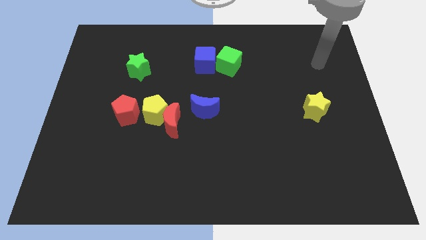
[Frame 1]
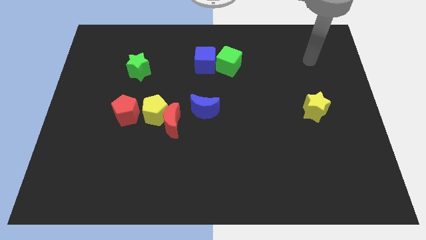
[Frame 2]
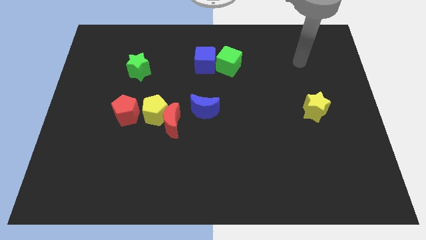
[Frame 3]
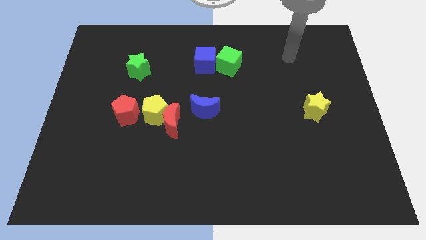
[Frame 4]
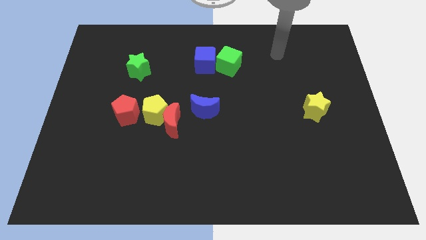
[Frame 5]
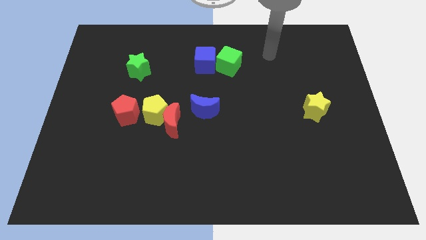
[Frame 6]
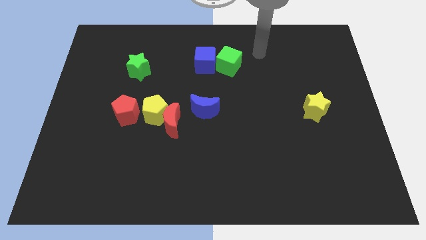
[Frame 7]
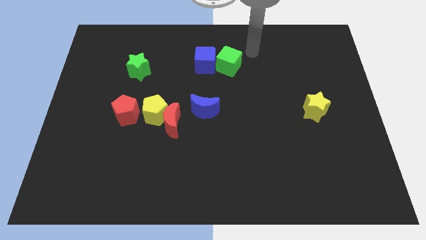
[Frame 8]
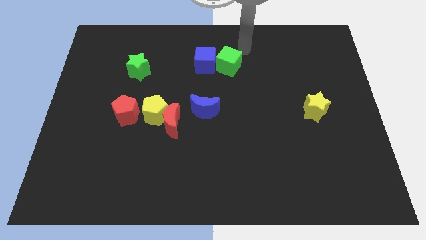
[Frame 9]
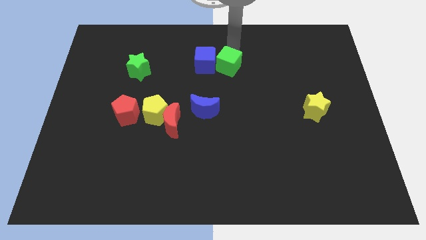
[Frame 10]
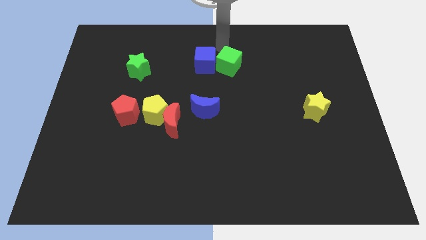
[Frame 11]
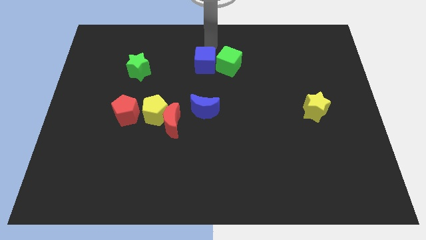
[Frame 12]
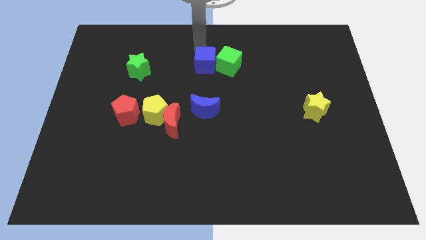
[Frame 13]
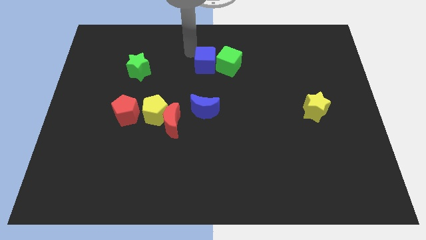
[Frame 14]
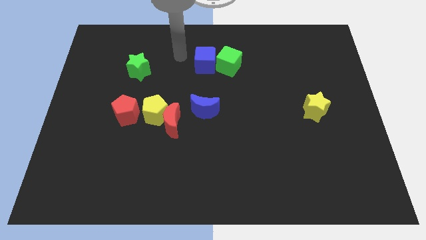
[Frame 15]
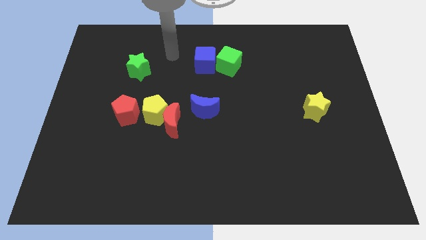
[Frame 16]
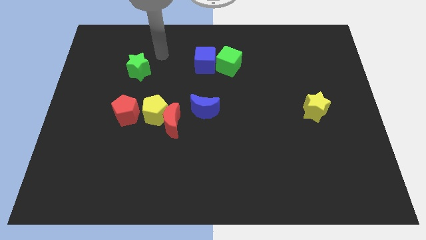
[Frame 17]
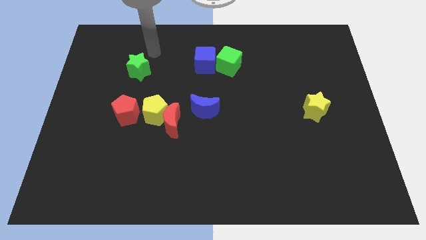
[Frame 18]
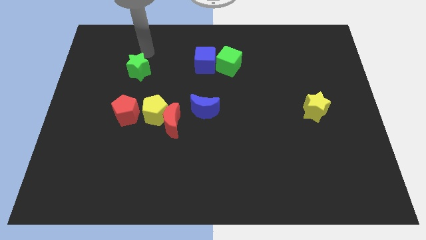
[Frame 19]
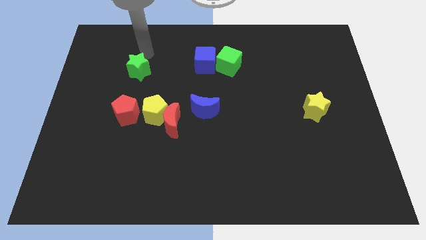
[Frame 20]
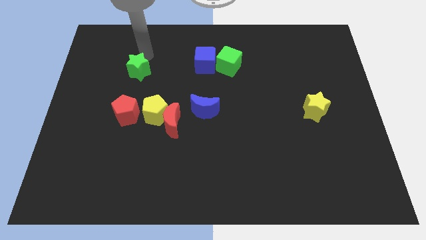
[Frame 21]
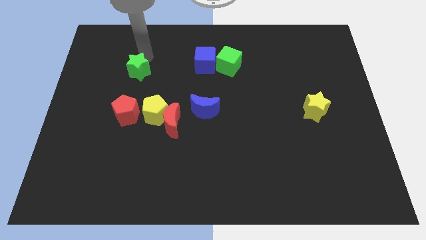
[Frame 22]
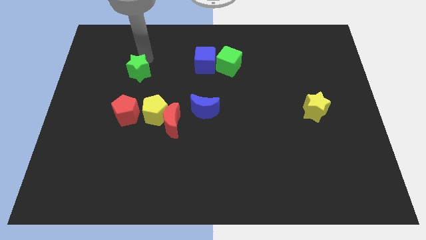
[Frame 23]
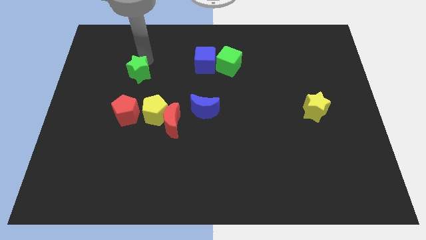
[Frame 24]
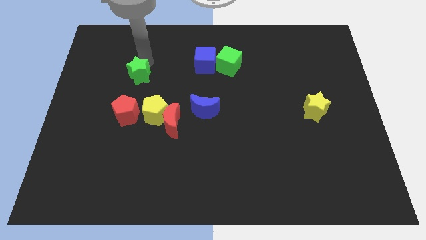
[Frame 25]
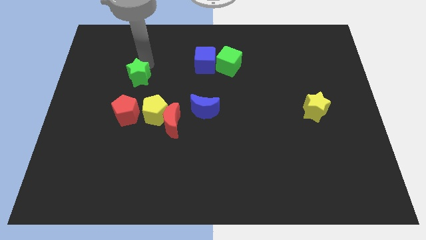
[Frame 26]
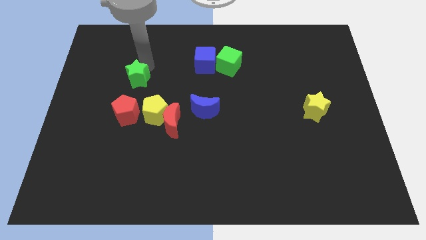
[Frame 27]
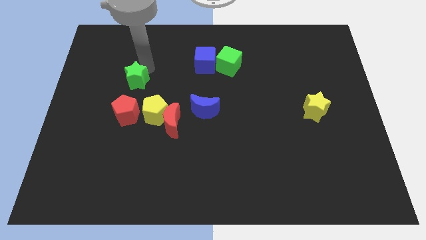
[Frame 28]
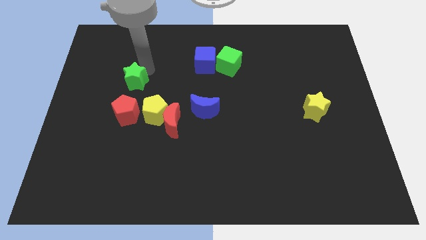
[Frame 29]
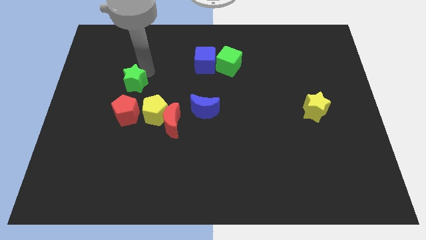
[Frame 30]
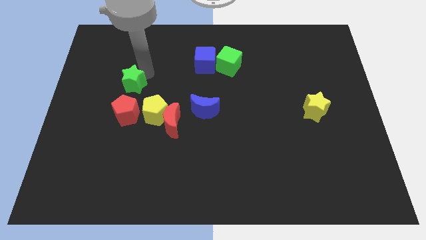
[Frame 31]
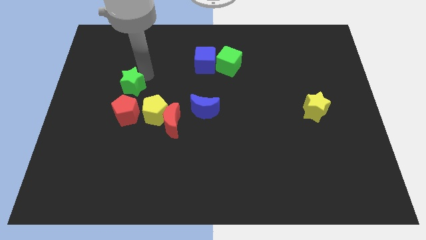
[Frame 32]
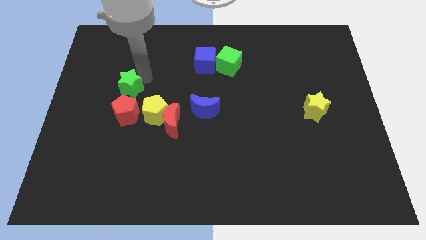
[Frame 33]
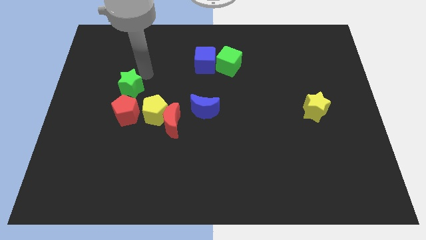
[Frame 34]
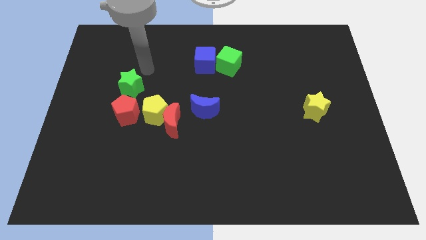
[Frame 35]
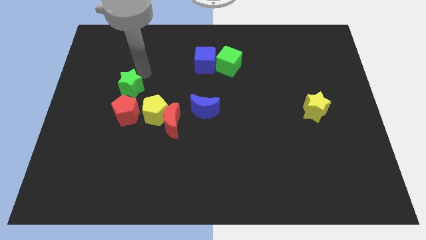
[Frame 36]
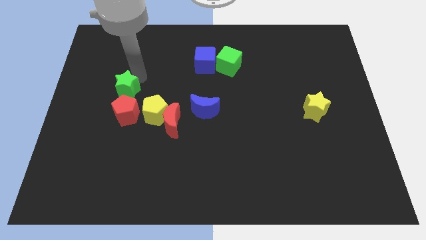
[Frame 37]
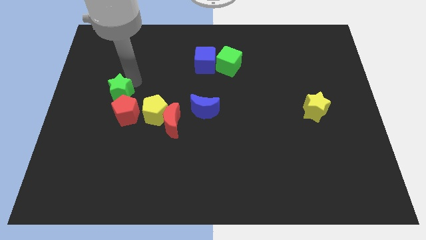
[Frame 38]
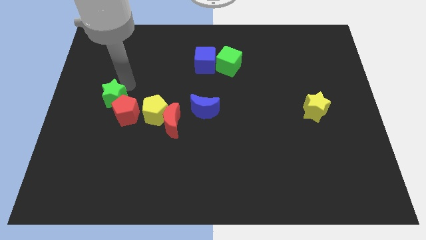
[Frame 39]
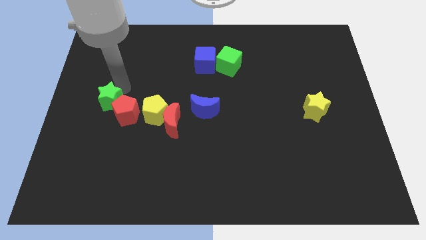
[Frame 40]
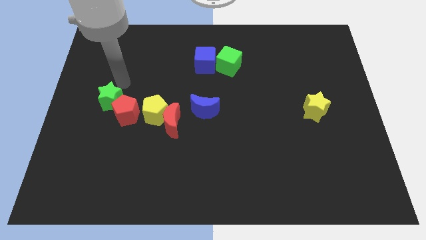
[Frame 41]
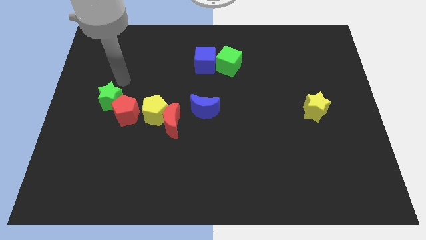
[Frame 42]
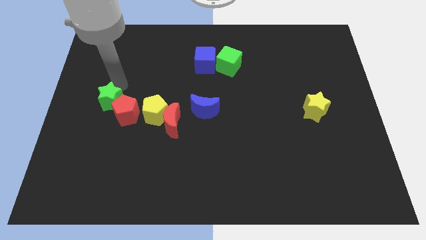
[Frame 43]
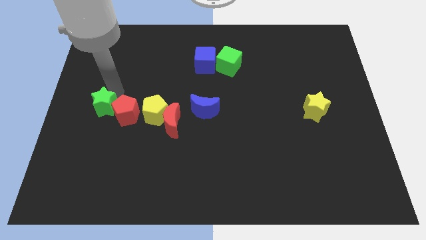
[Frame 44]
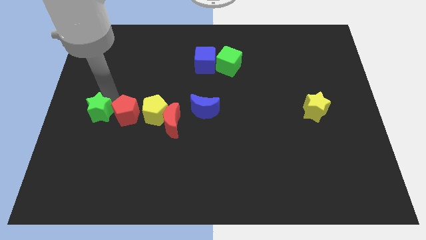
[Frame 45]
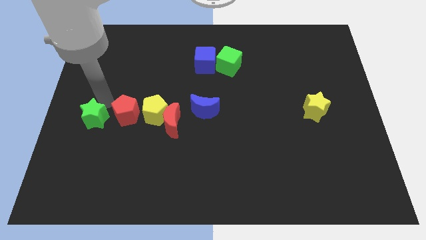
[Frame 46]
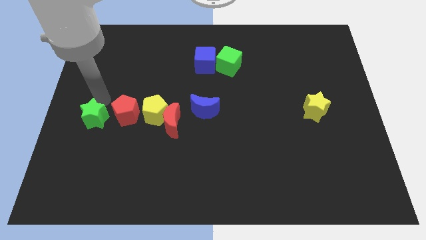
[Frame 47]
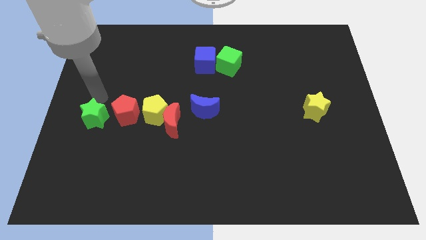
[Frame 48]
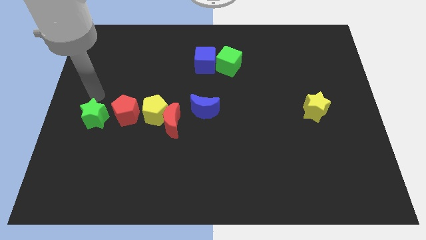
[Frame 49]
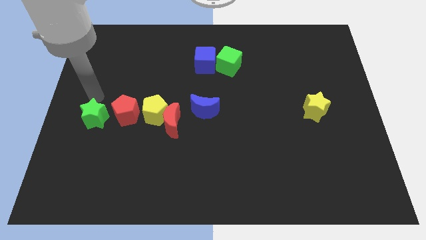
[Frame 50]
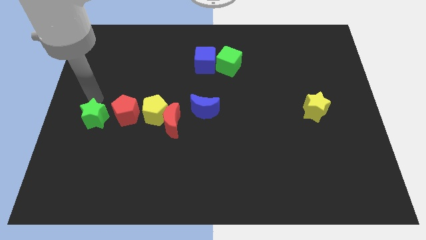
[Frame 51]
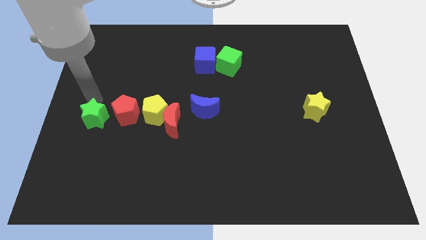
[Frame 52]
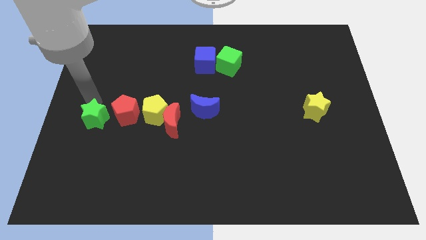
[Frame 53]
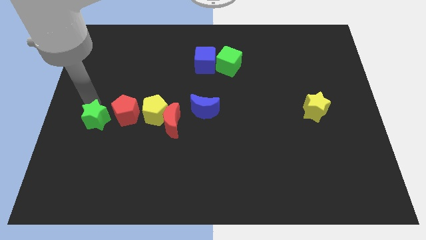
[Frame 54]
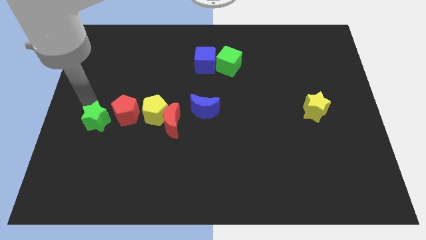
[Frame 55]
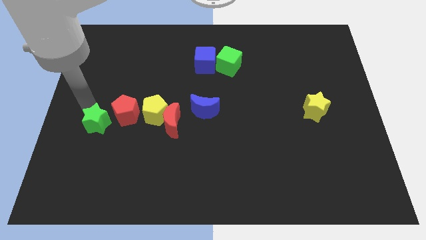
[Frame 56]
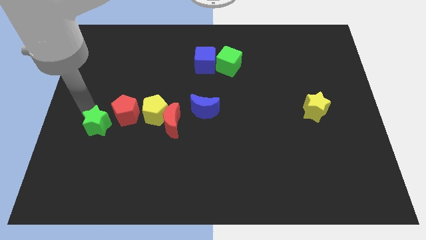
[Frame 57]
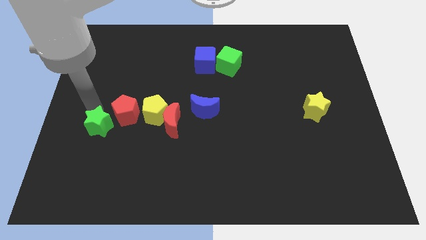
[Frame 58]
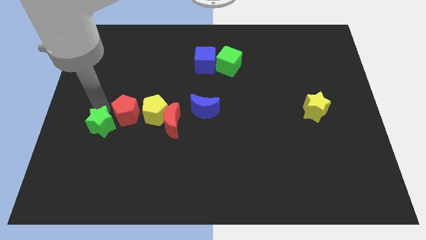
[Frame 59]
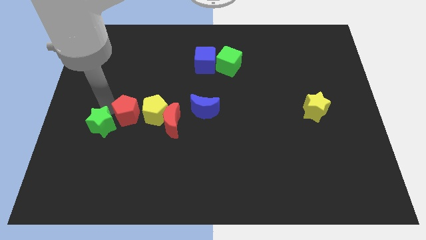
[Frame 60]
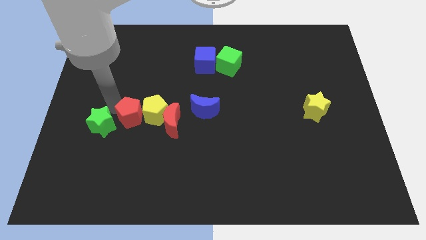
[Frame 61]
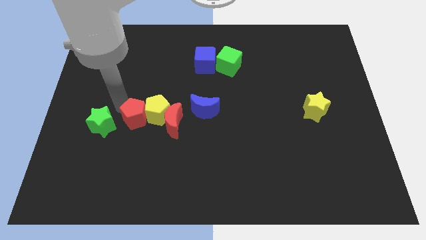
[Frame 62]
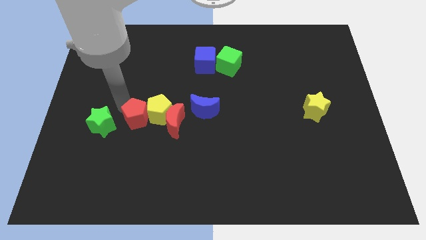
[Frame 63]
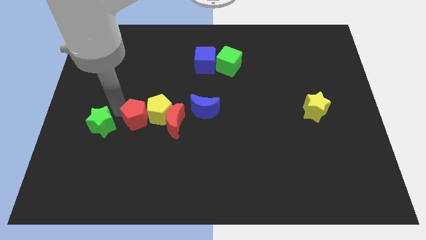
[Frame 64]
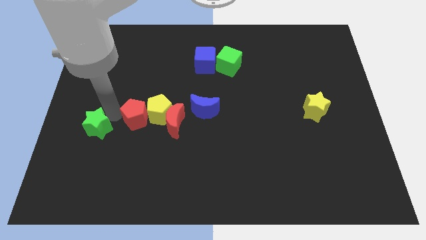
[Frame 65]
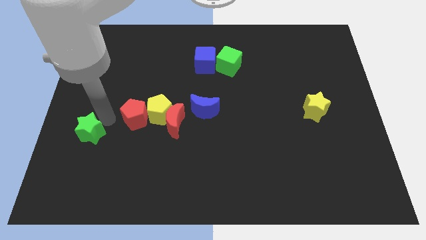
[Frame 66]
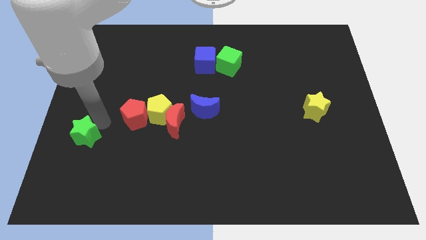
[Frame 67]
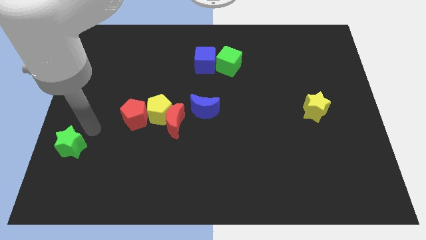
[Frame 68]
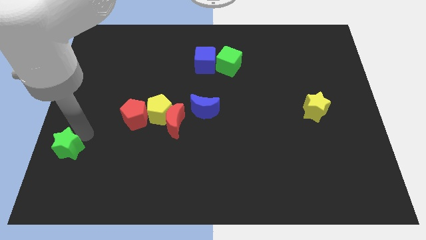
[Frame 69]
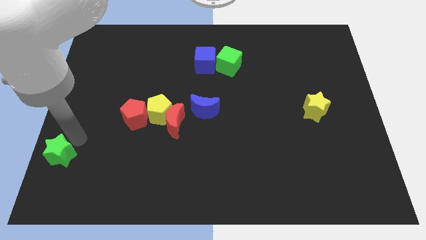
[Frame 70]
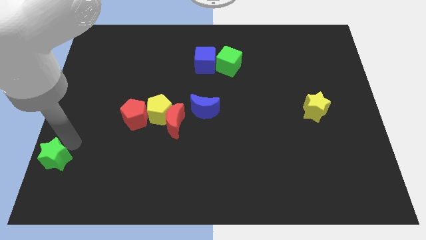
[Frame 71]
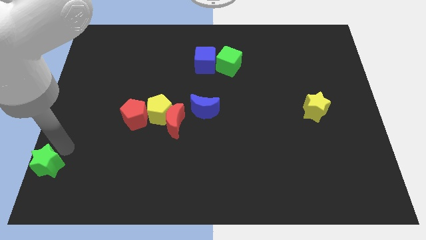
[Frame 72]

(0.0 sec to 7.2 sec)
put the green star to the bottom left

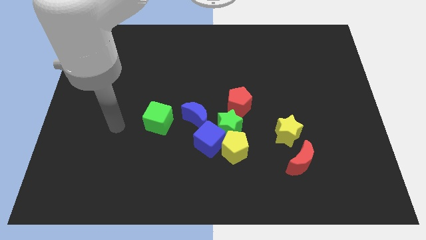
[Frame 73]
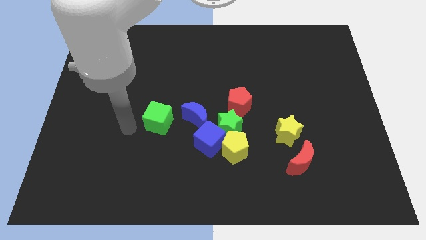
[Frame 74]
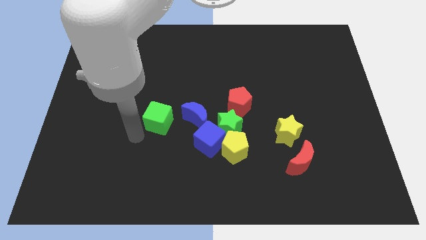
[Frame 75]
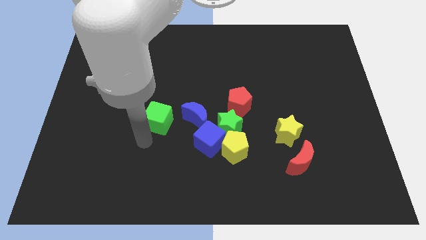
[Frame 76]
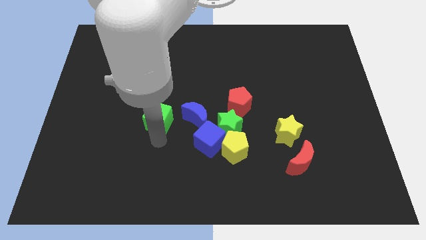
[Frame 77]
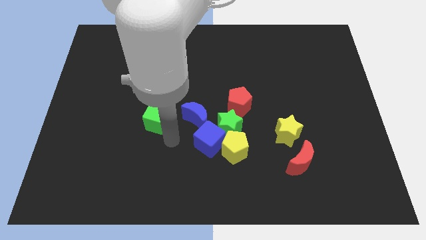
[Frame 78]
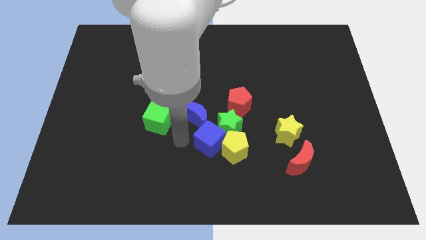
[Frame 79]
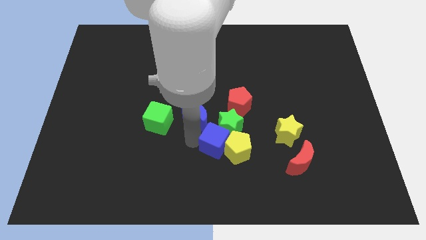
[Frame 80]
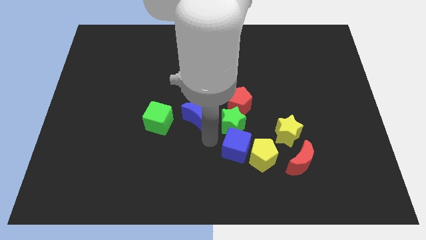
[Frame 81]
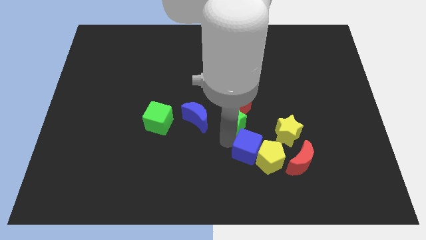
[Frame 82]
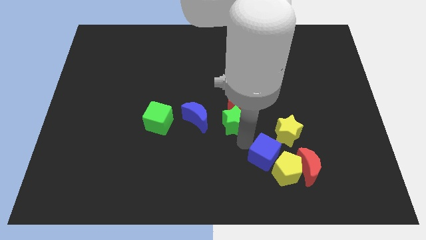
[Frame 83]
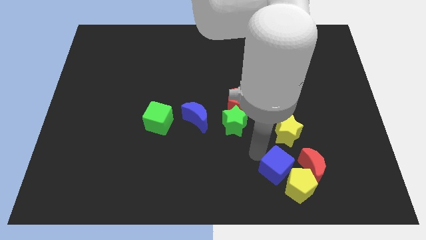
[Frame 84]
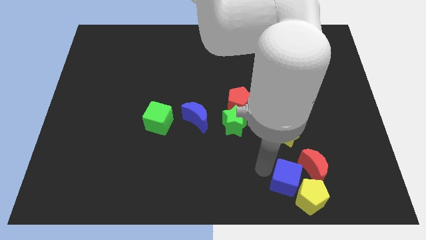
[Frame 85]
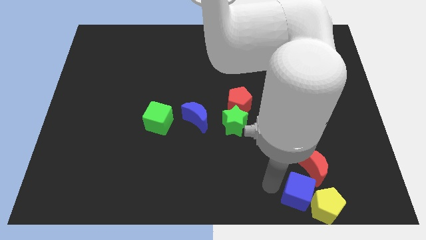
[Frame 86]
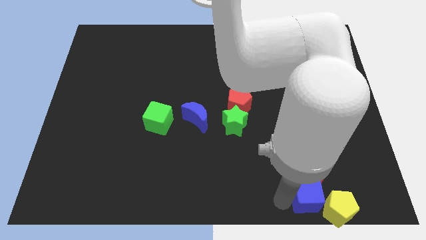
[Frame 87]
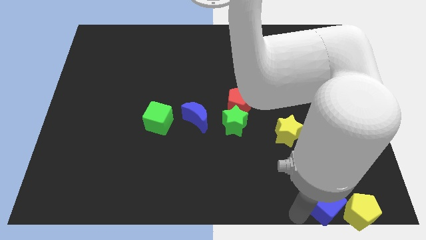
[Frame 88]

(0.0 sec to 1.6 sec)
put the yellow pentagon to the bottom right of the board
